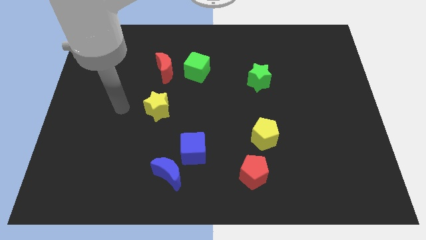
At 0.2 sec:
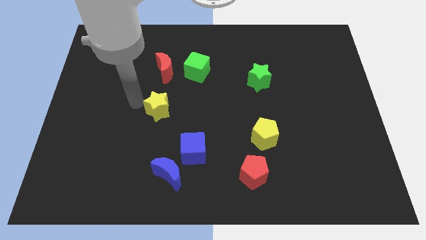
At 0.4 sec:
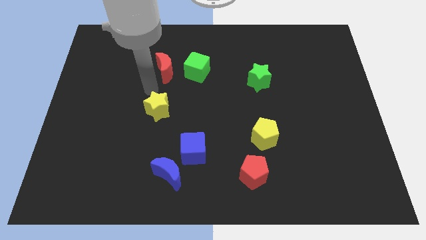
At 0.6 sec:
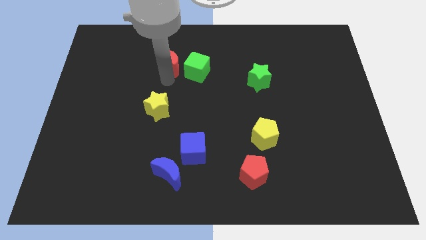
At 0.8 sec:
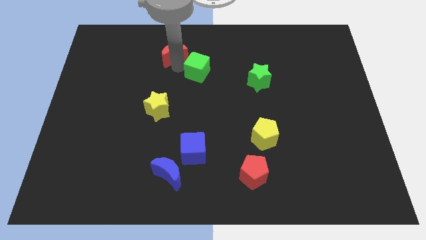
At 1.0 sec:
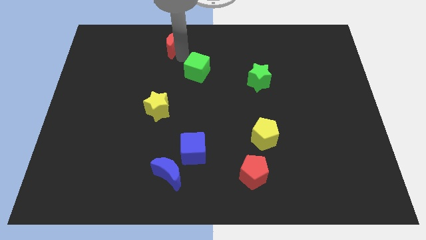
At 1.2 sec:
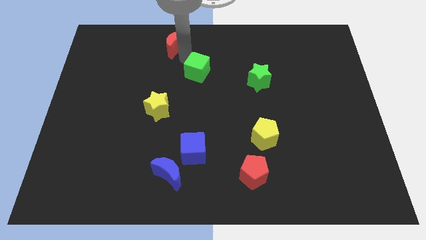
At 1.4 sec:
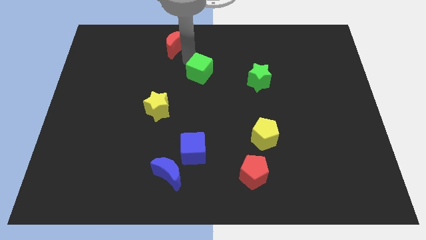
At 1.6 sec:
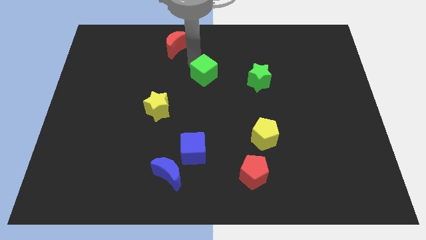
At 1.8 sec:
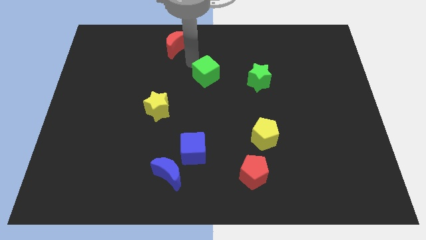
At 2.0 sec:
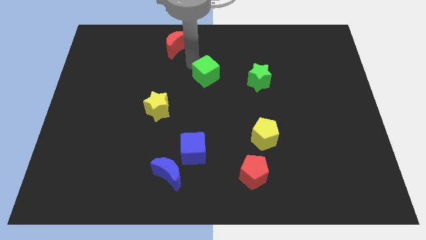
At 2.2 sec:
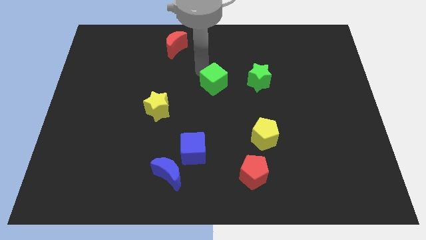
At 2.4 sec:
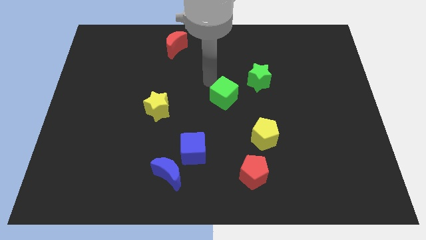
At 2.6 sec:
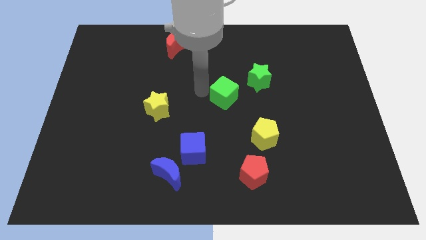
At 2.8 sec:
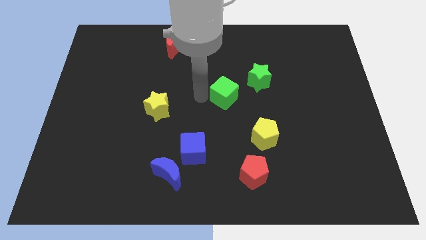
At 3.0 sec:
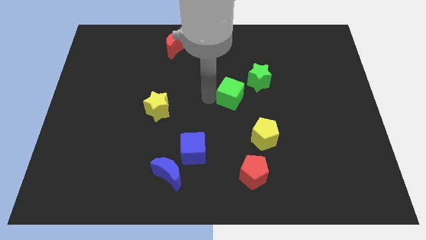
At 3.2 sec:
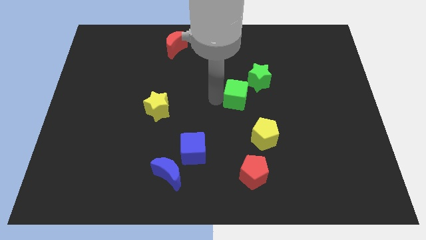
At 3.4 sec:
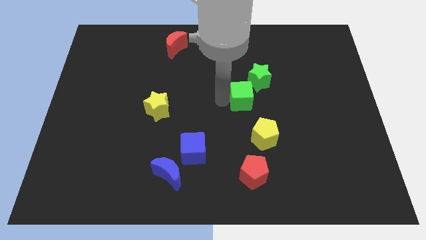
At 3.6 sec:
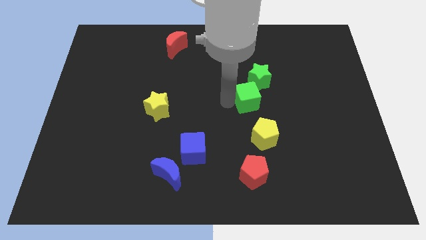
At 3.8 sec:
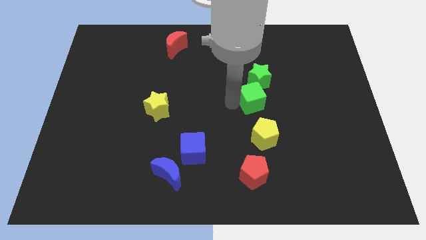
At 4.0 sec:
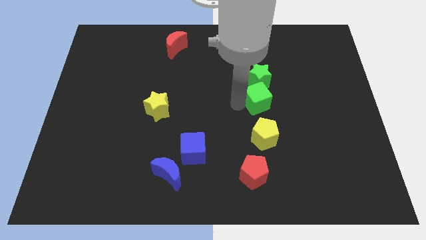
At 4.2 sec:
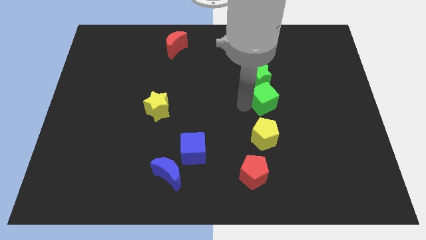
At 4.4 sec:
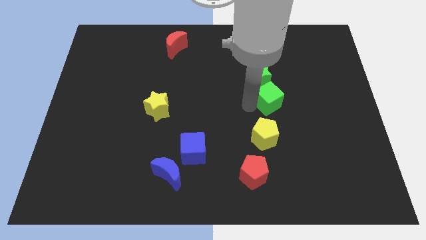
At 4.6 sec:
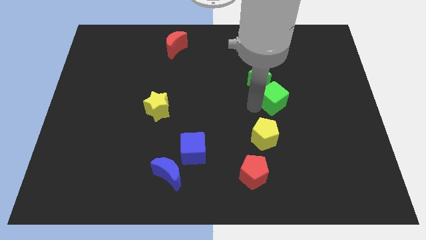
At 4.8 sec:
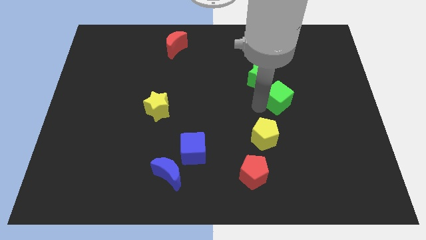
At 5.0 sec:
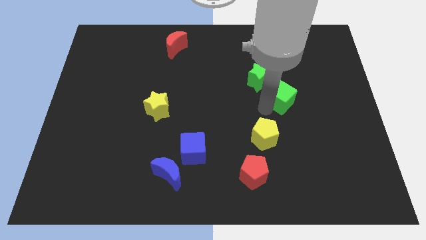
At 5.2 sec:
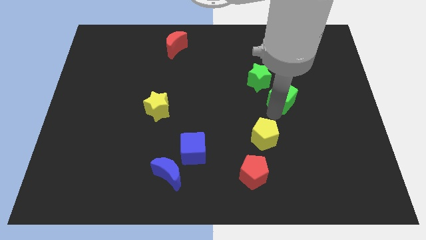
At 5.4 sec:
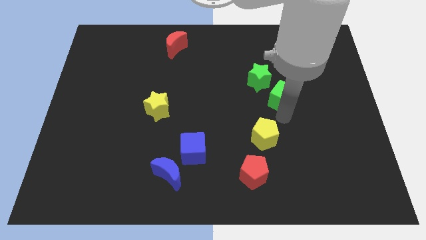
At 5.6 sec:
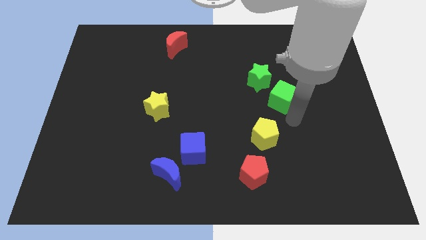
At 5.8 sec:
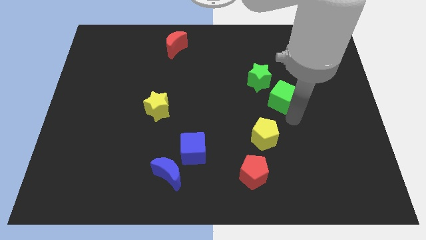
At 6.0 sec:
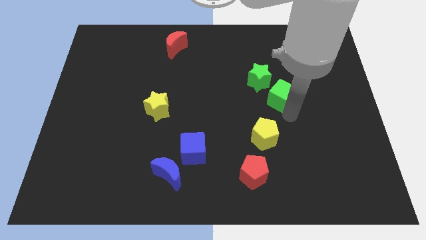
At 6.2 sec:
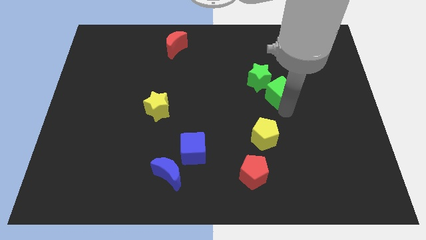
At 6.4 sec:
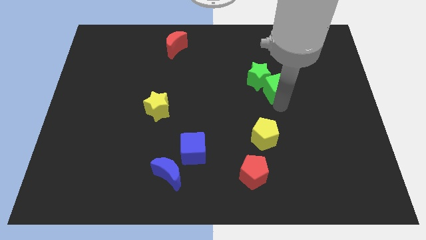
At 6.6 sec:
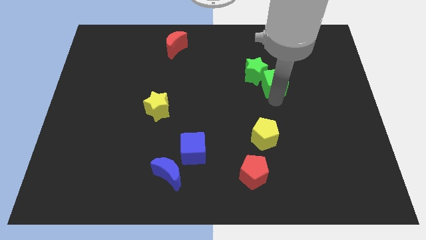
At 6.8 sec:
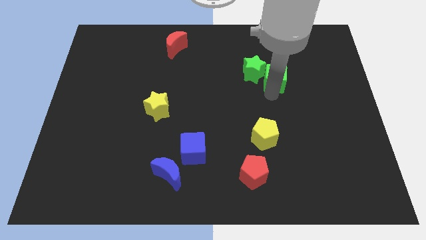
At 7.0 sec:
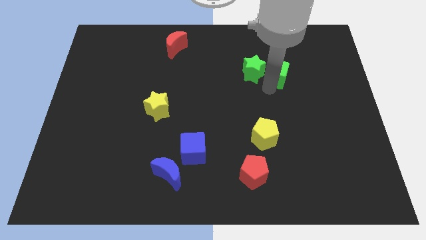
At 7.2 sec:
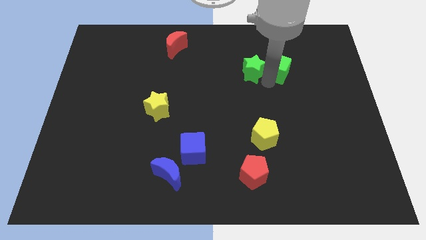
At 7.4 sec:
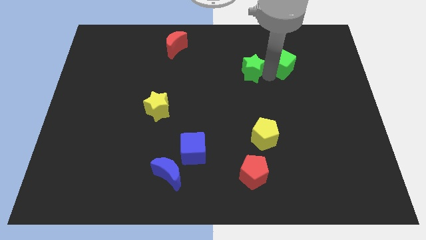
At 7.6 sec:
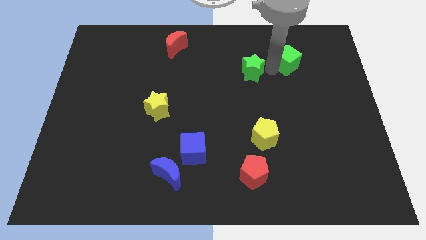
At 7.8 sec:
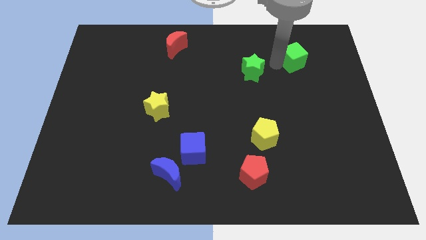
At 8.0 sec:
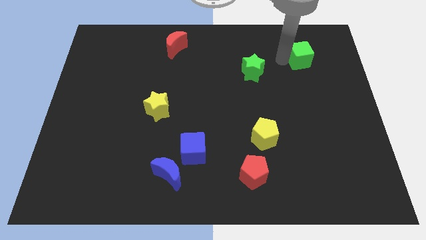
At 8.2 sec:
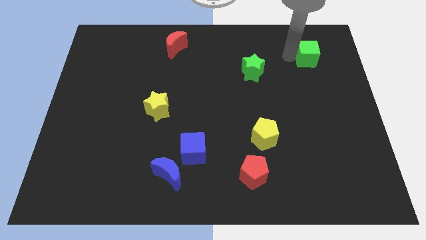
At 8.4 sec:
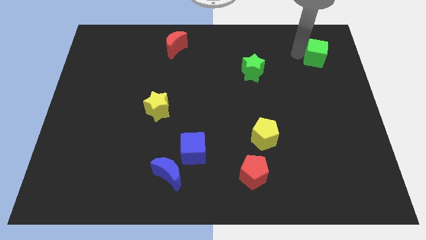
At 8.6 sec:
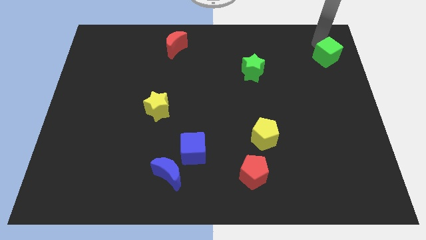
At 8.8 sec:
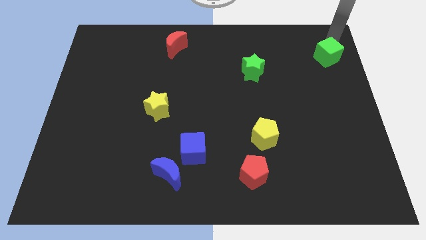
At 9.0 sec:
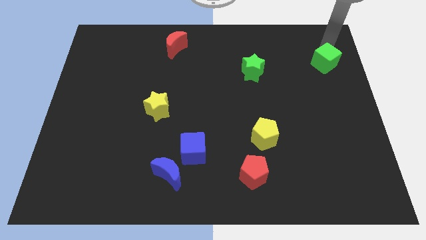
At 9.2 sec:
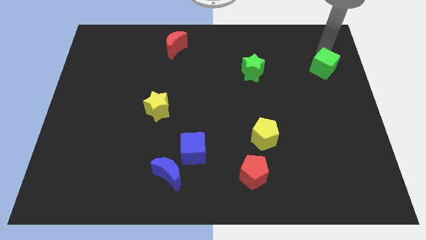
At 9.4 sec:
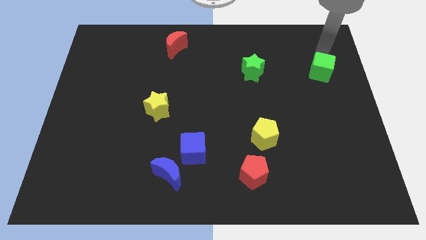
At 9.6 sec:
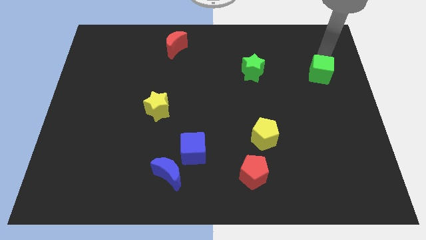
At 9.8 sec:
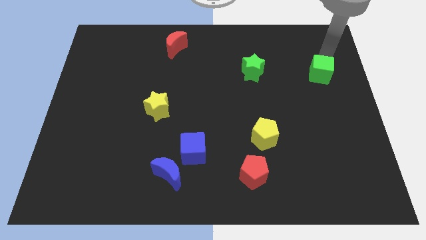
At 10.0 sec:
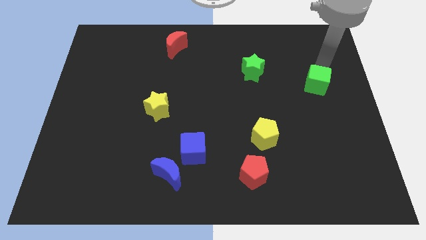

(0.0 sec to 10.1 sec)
slide the green cube to the right side of the board
